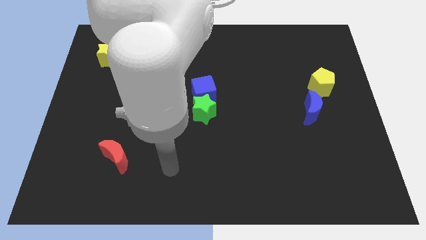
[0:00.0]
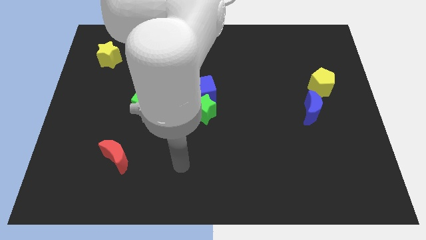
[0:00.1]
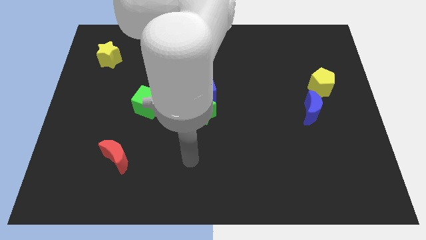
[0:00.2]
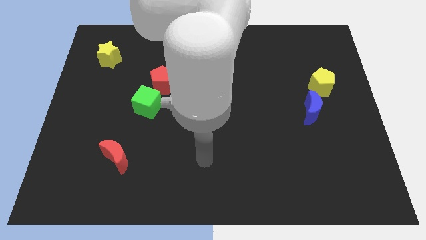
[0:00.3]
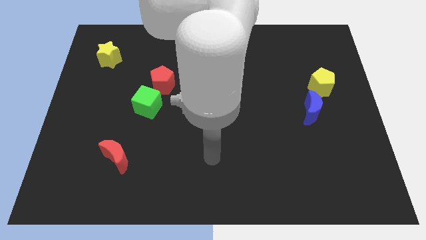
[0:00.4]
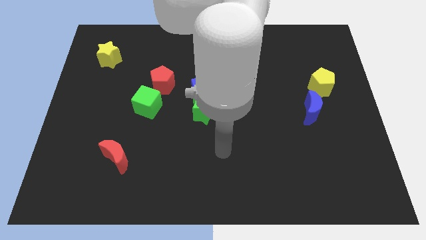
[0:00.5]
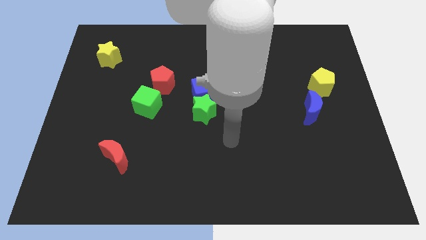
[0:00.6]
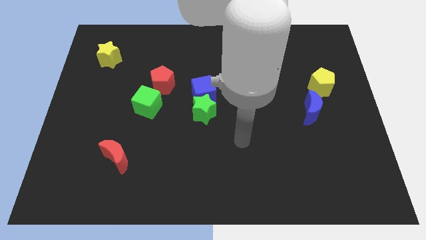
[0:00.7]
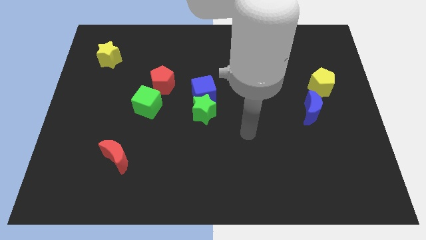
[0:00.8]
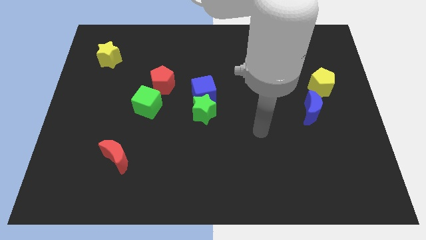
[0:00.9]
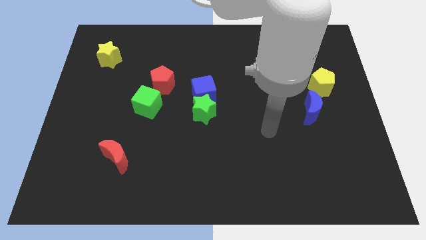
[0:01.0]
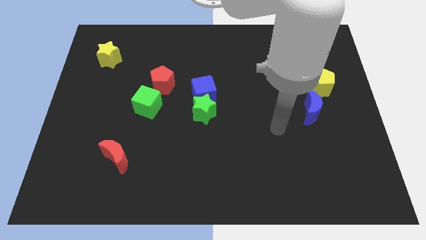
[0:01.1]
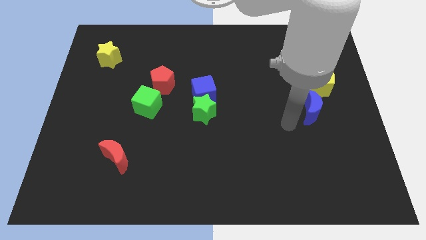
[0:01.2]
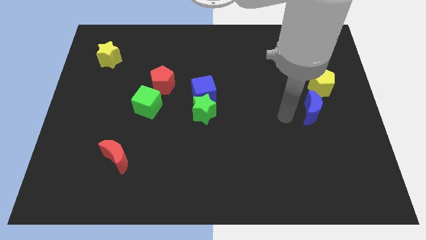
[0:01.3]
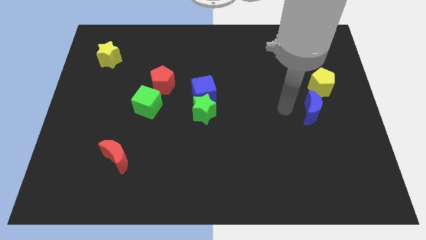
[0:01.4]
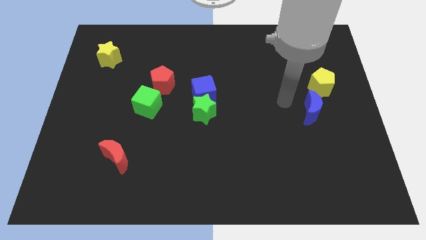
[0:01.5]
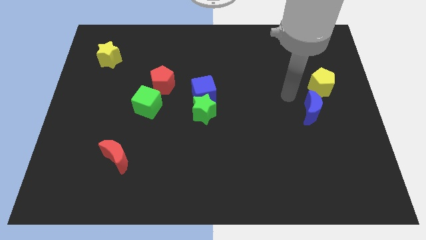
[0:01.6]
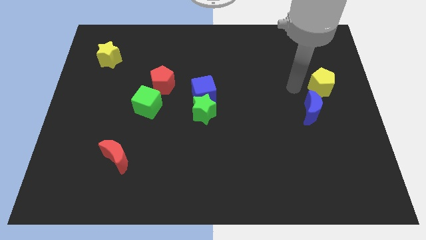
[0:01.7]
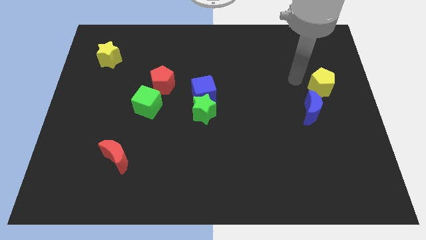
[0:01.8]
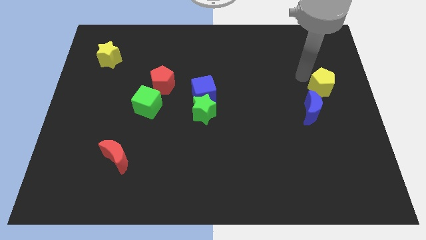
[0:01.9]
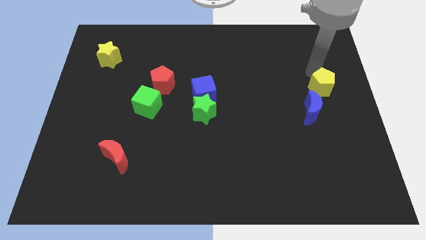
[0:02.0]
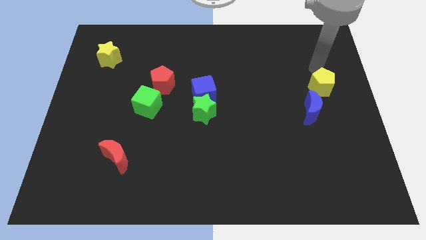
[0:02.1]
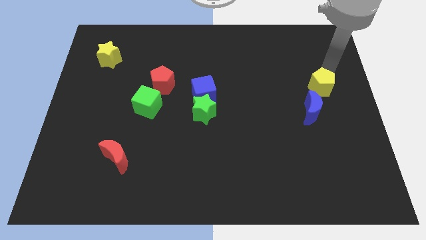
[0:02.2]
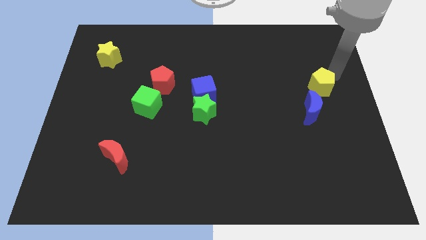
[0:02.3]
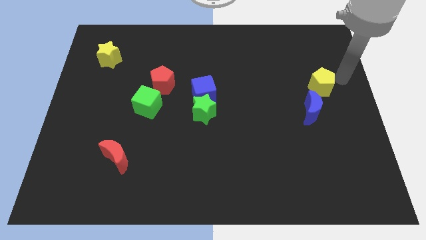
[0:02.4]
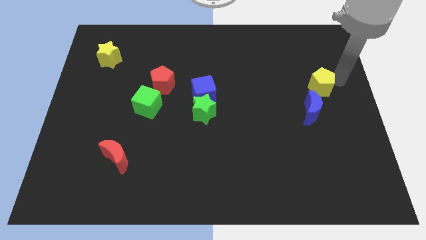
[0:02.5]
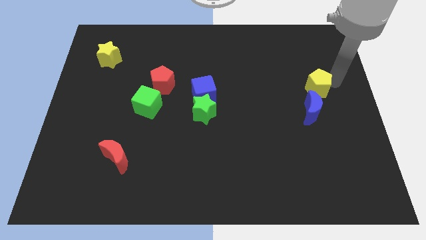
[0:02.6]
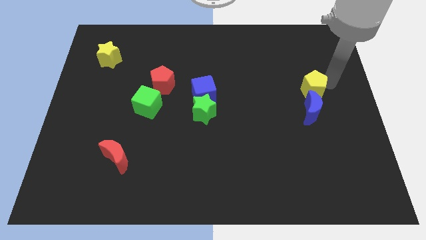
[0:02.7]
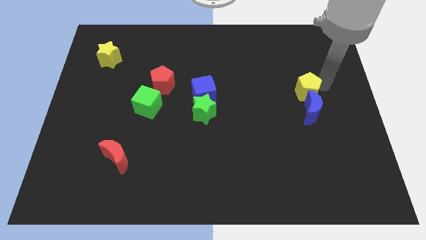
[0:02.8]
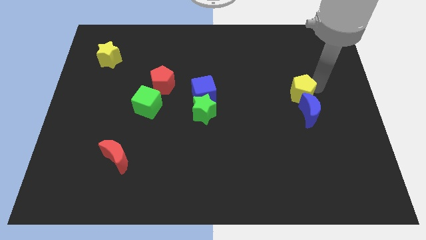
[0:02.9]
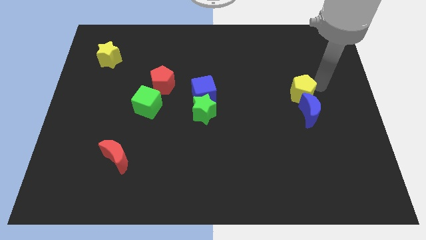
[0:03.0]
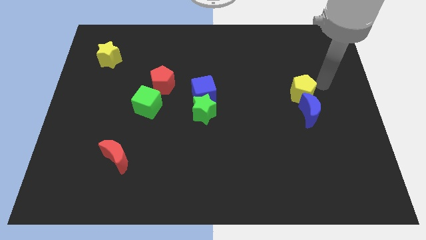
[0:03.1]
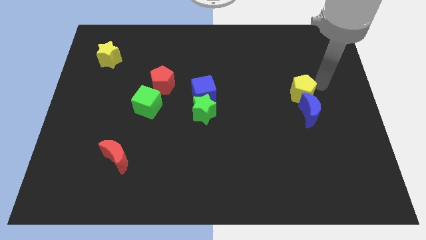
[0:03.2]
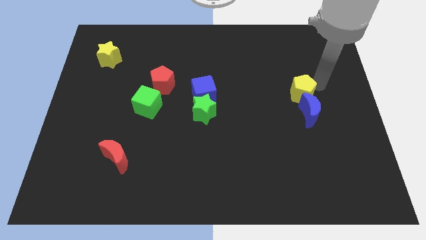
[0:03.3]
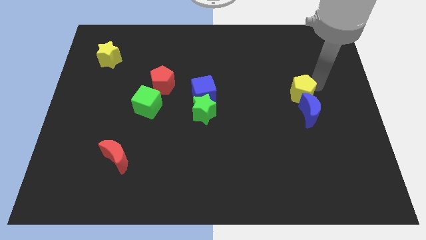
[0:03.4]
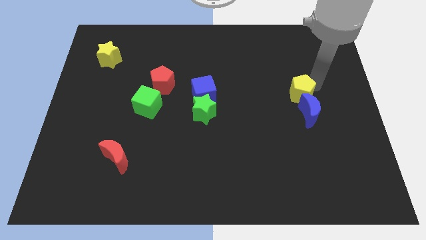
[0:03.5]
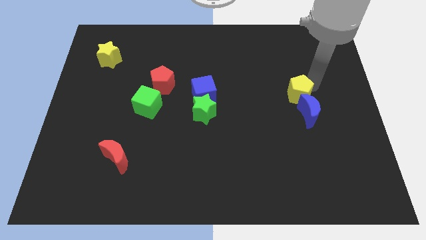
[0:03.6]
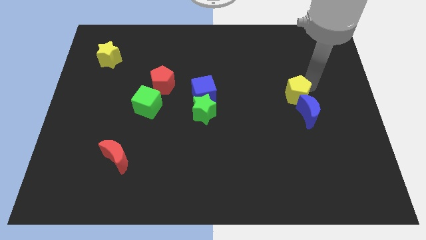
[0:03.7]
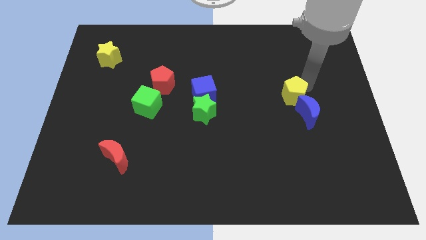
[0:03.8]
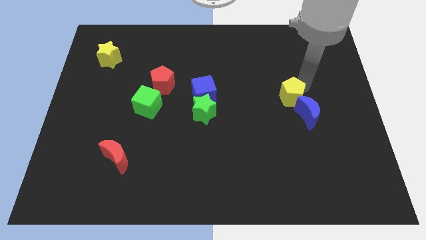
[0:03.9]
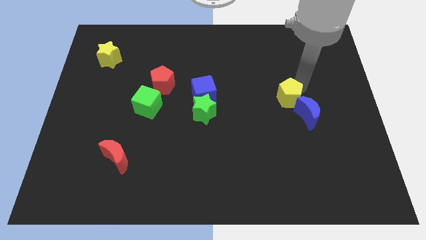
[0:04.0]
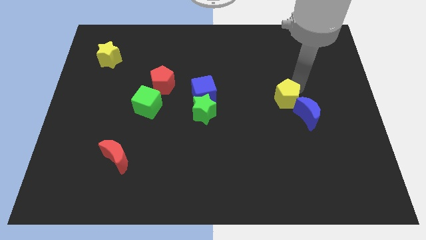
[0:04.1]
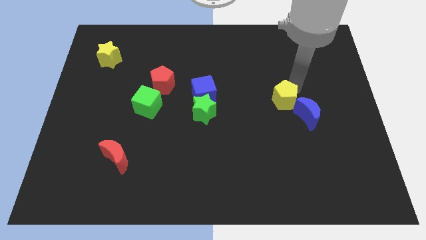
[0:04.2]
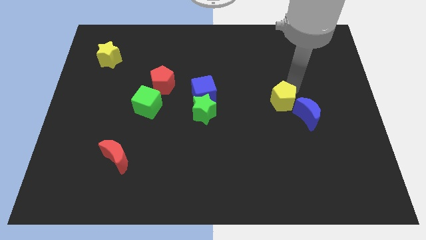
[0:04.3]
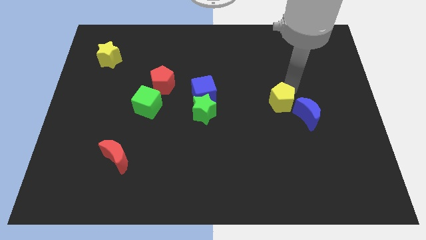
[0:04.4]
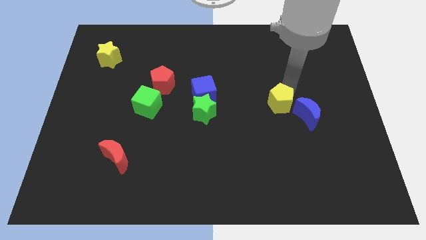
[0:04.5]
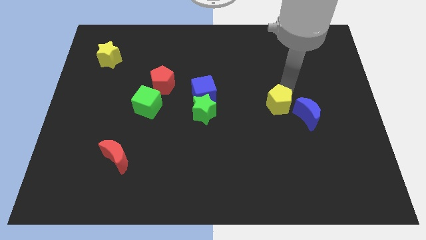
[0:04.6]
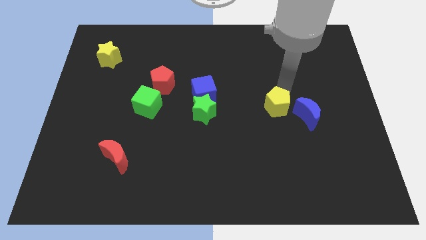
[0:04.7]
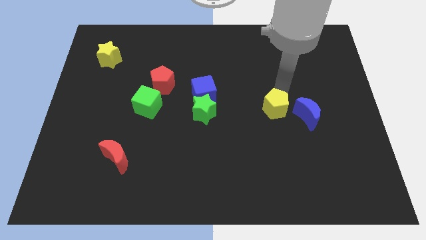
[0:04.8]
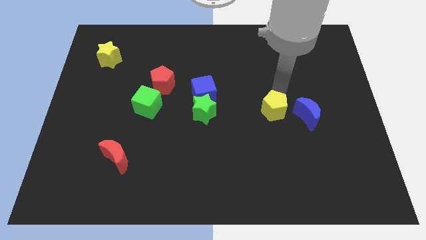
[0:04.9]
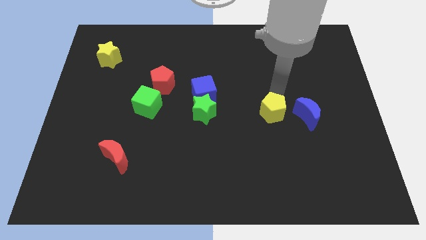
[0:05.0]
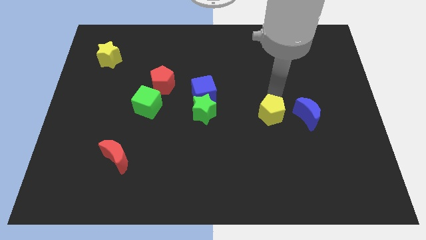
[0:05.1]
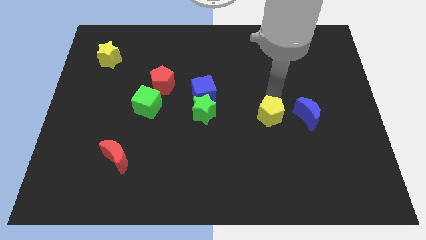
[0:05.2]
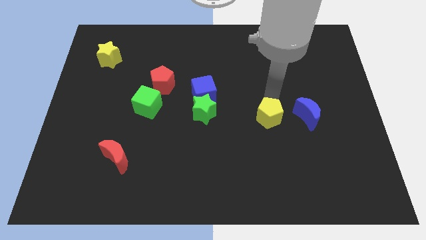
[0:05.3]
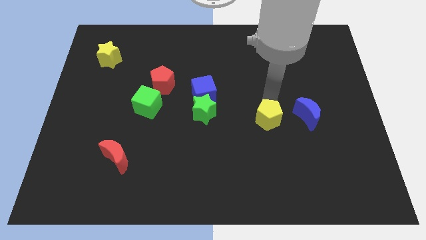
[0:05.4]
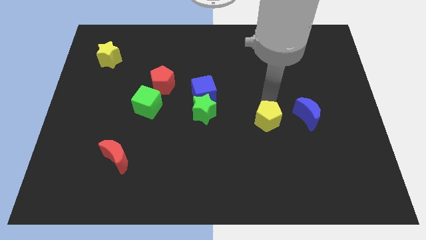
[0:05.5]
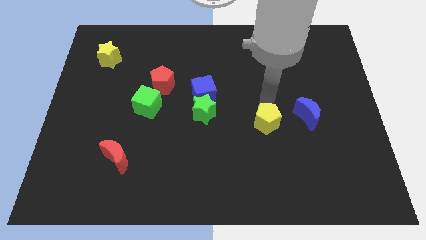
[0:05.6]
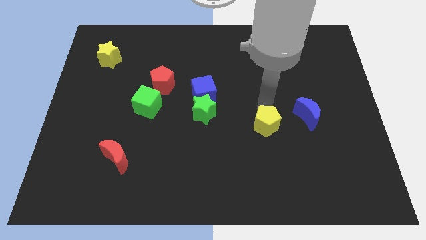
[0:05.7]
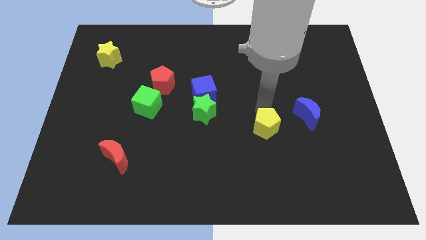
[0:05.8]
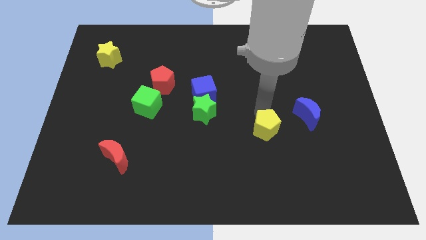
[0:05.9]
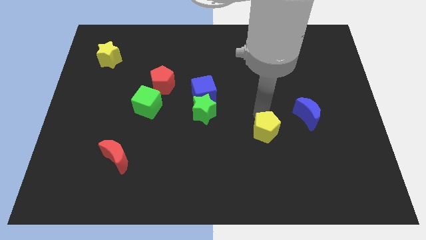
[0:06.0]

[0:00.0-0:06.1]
push the yellow pentagon downwards and to the left diagonally

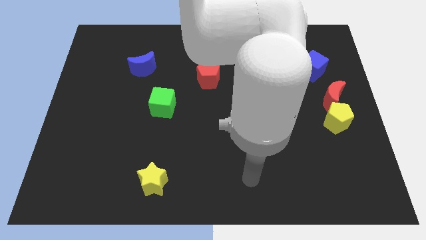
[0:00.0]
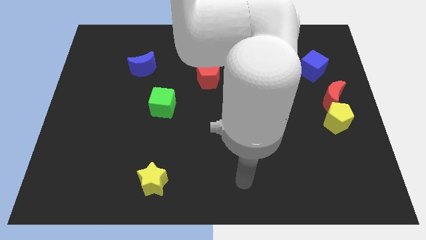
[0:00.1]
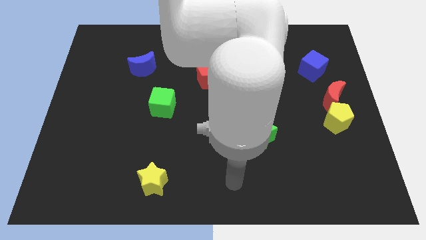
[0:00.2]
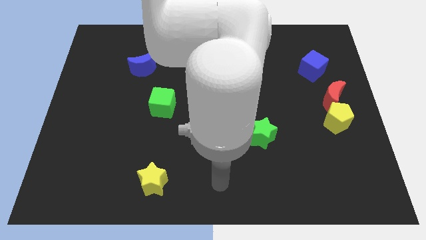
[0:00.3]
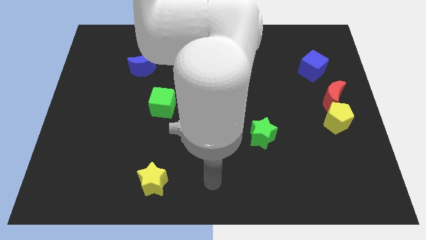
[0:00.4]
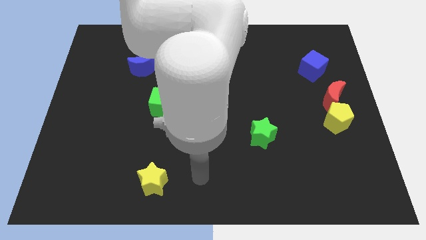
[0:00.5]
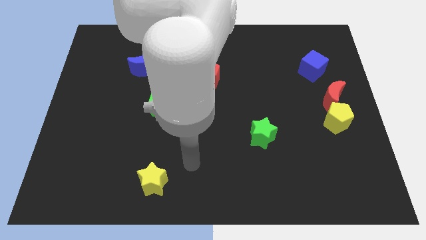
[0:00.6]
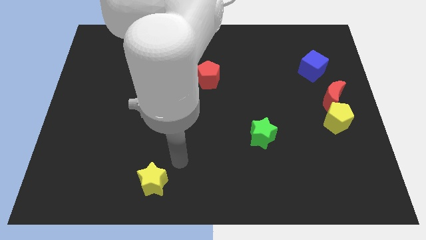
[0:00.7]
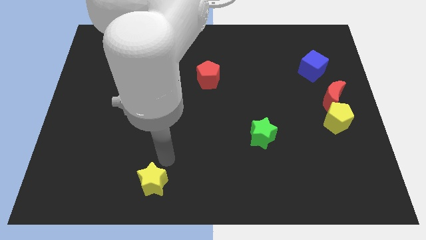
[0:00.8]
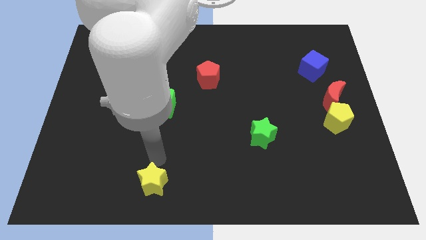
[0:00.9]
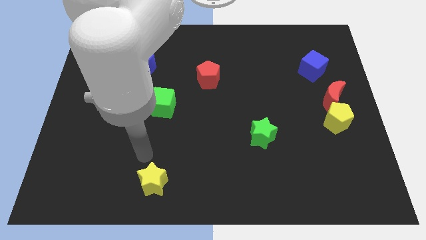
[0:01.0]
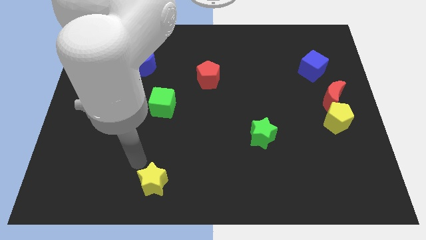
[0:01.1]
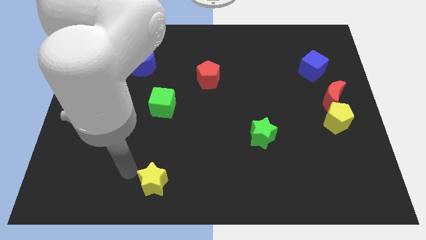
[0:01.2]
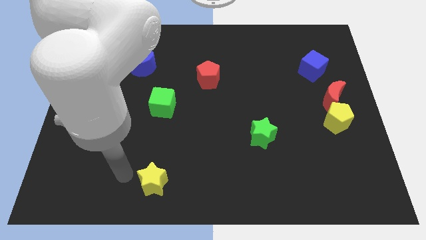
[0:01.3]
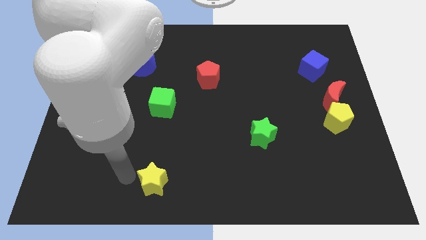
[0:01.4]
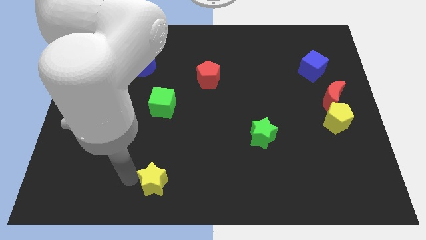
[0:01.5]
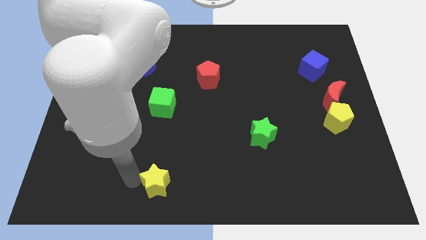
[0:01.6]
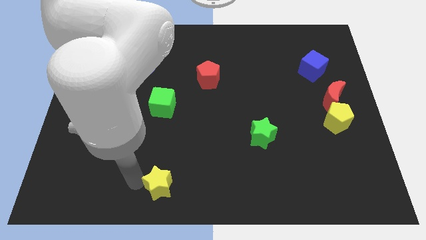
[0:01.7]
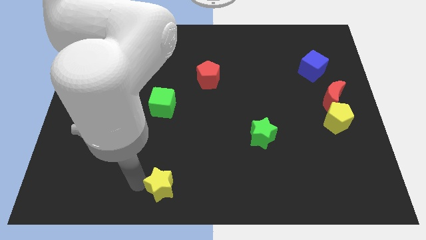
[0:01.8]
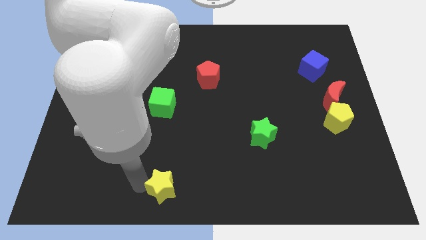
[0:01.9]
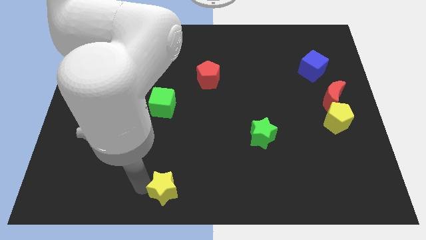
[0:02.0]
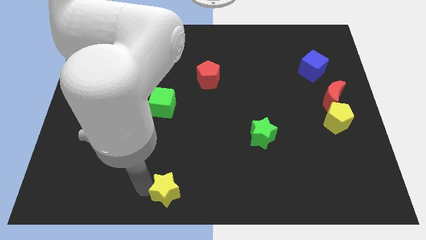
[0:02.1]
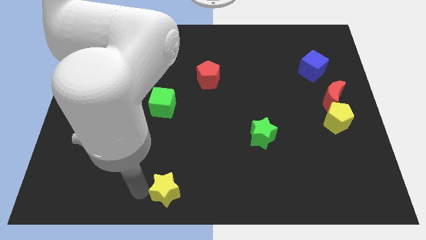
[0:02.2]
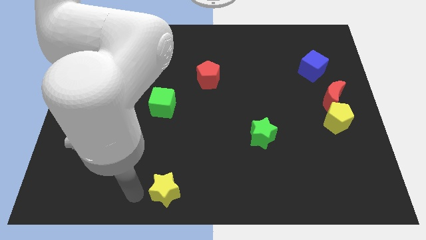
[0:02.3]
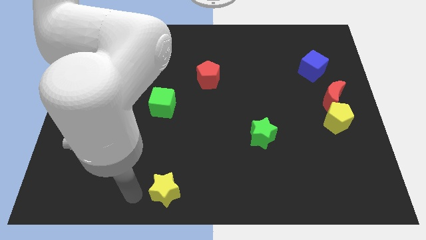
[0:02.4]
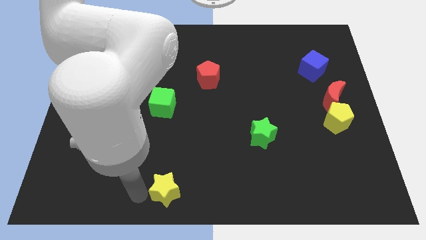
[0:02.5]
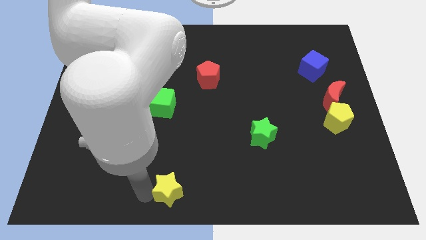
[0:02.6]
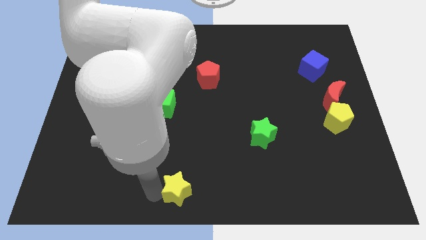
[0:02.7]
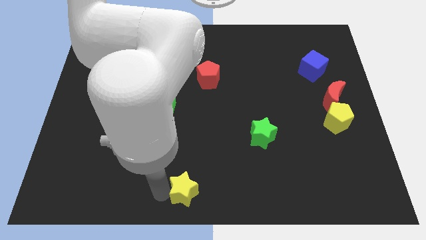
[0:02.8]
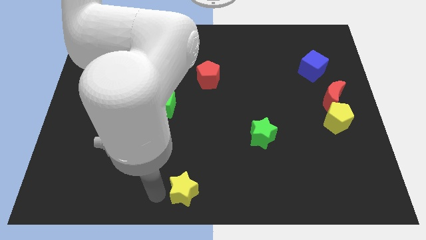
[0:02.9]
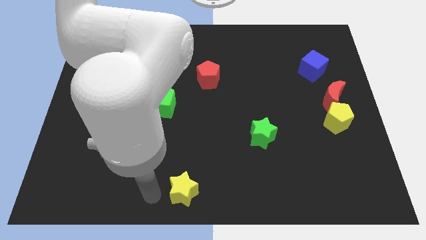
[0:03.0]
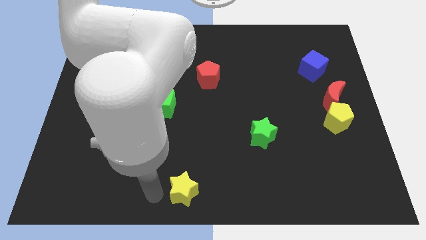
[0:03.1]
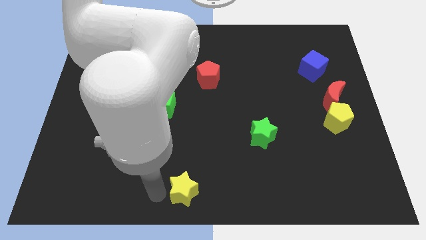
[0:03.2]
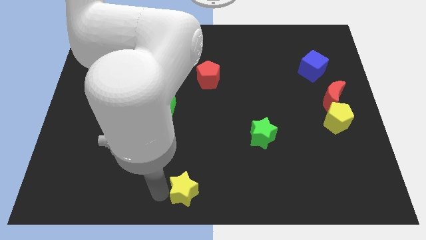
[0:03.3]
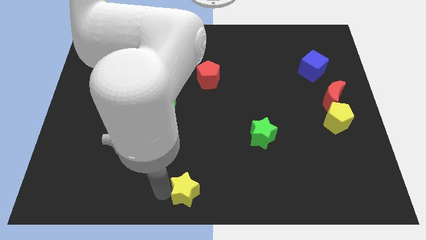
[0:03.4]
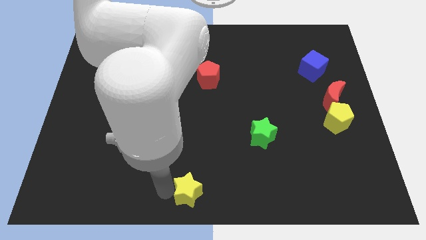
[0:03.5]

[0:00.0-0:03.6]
slightly push the yellow star to the right
